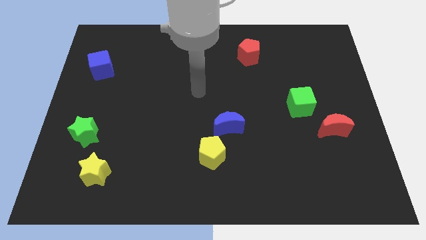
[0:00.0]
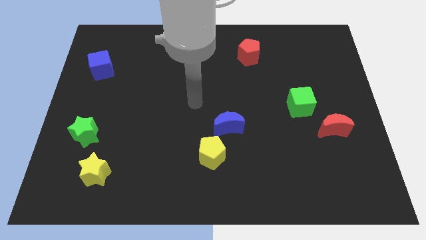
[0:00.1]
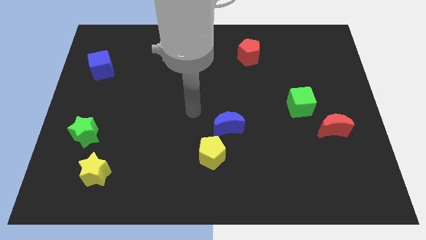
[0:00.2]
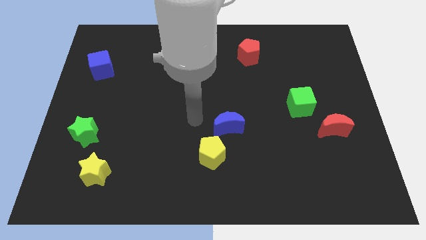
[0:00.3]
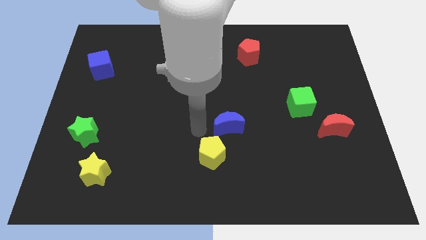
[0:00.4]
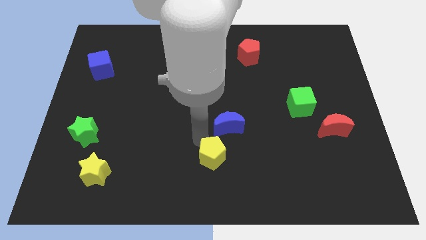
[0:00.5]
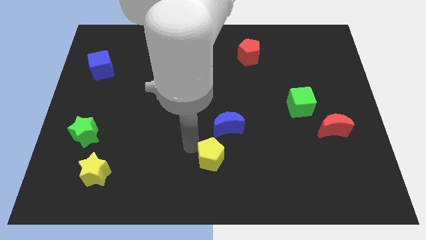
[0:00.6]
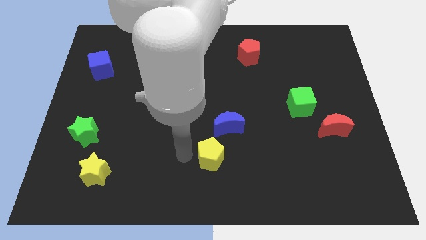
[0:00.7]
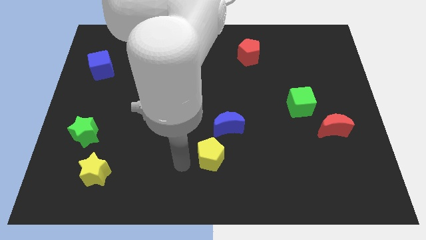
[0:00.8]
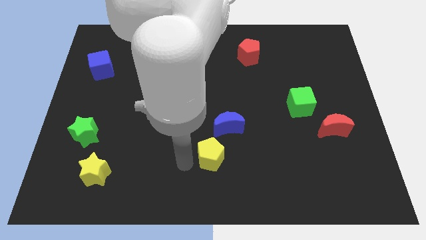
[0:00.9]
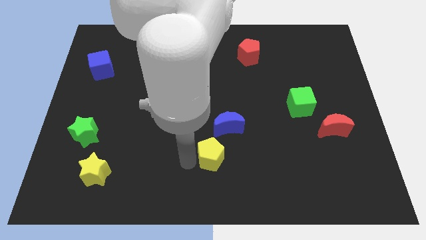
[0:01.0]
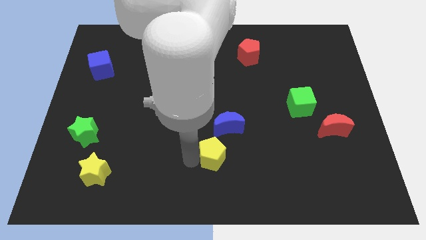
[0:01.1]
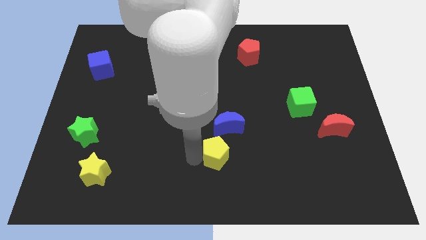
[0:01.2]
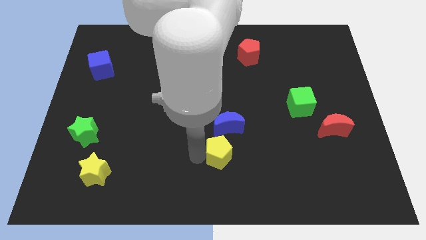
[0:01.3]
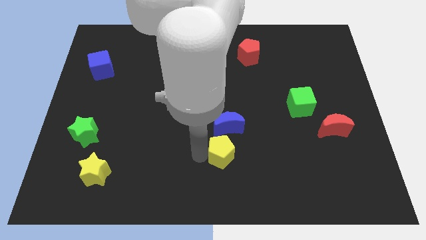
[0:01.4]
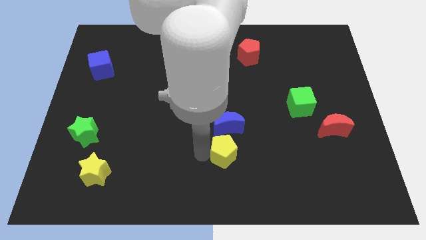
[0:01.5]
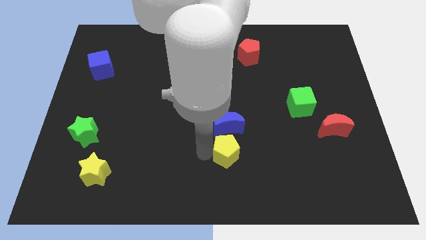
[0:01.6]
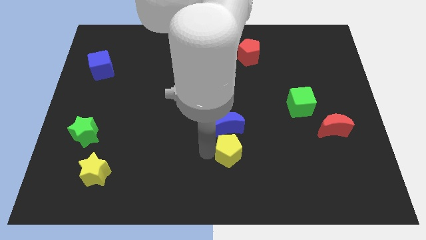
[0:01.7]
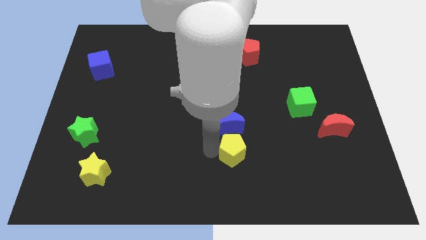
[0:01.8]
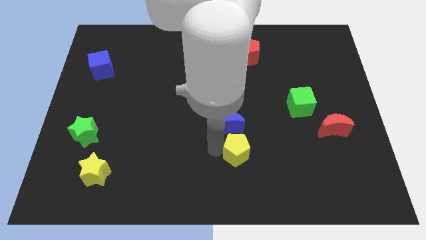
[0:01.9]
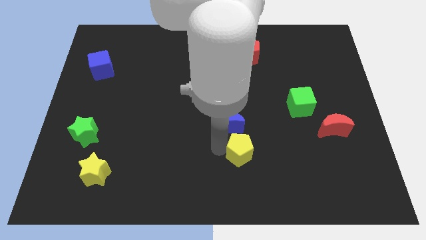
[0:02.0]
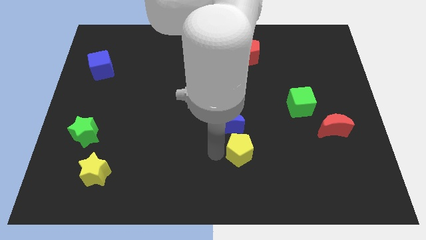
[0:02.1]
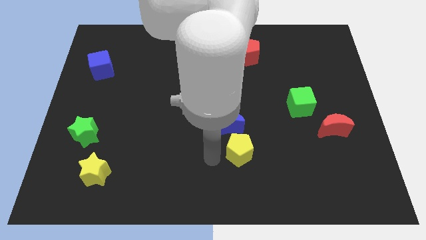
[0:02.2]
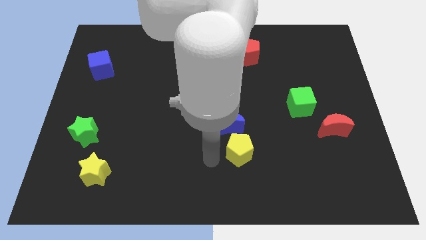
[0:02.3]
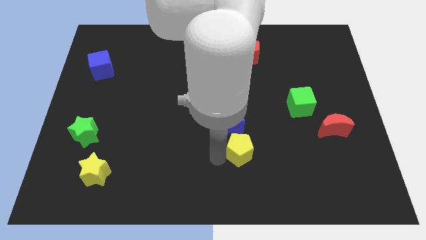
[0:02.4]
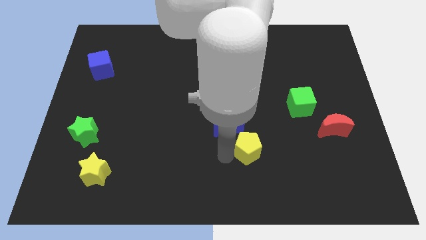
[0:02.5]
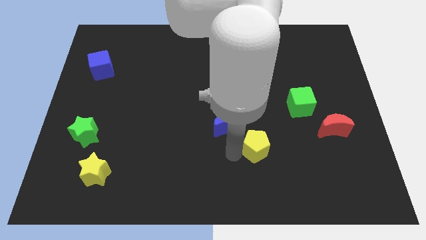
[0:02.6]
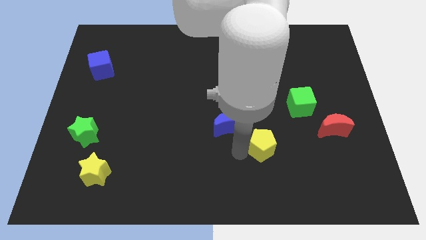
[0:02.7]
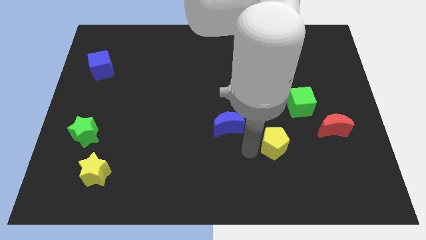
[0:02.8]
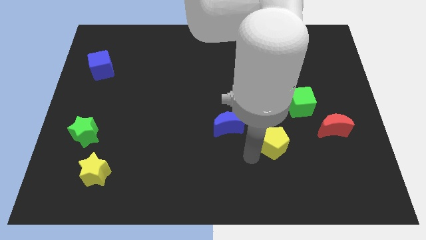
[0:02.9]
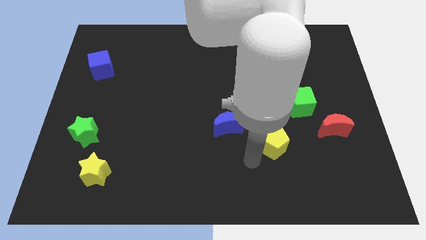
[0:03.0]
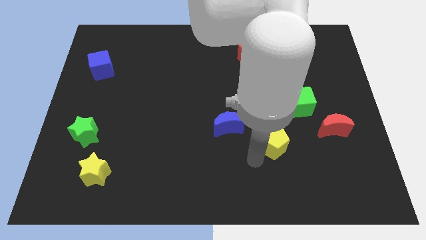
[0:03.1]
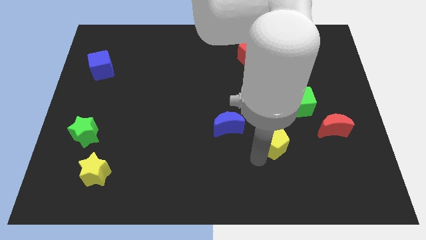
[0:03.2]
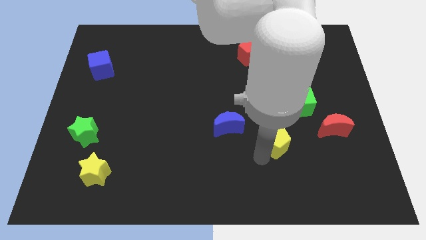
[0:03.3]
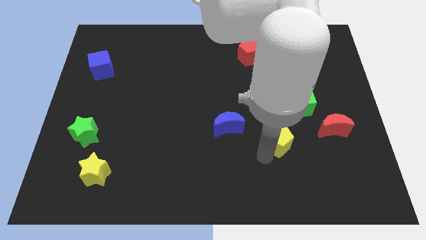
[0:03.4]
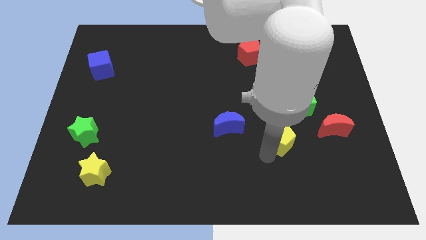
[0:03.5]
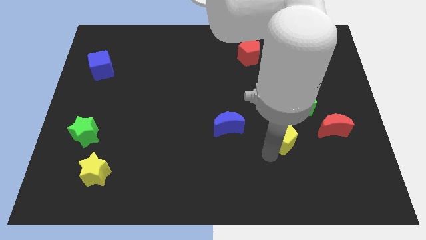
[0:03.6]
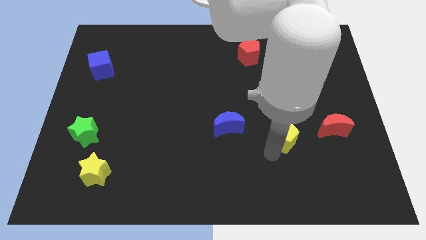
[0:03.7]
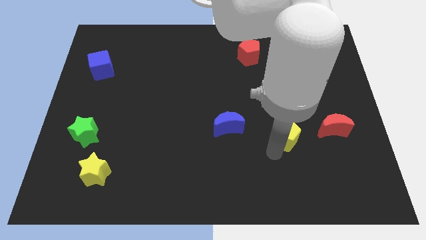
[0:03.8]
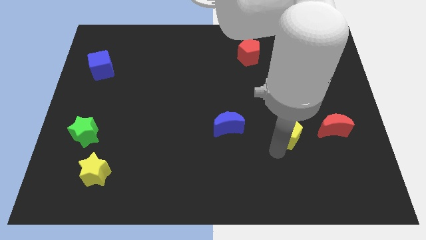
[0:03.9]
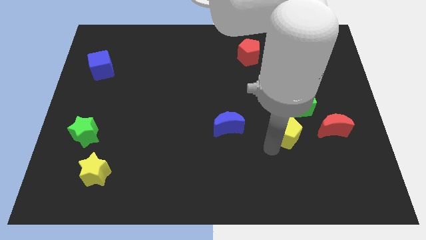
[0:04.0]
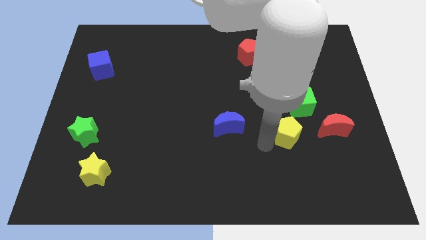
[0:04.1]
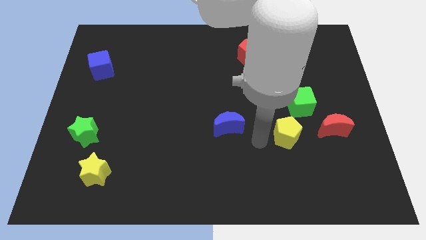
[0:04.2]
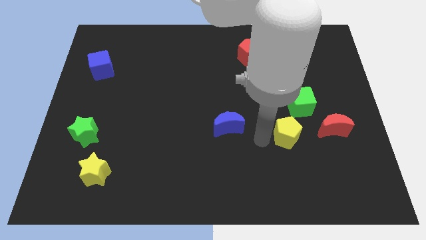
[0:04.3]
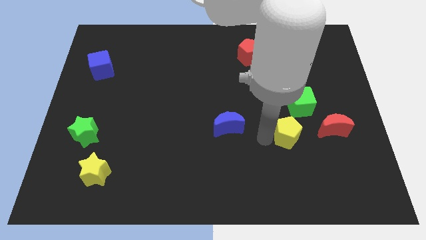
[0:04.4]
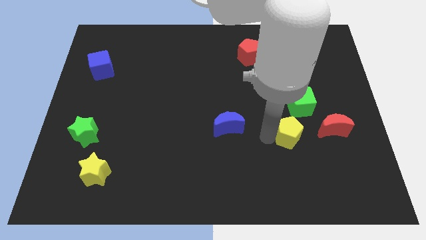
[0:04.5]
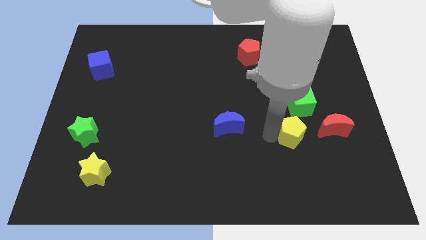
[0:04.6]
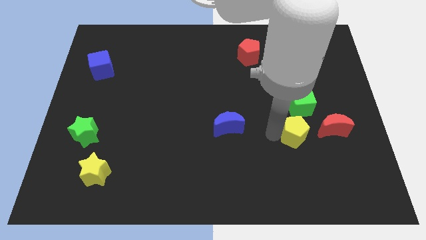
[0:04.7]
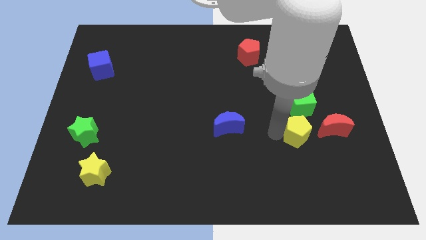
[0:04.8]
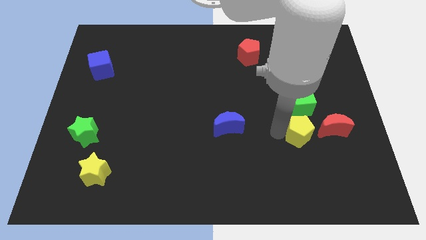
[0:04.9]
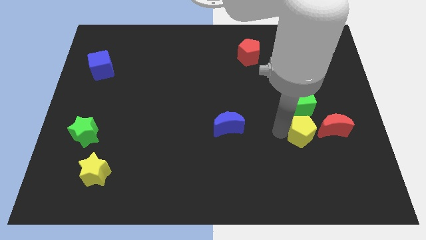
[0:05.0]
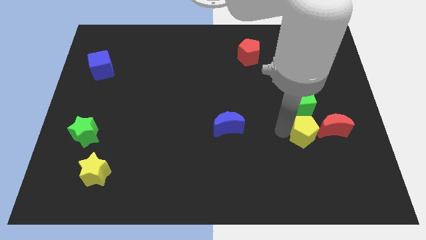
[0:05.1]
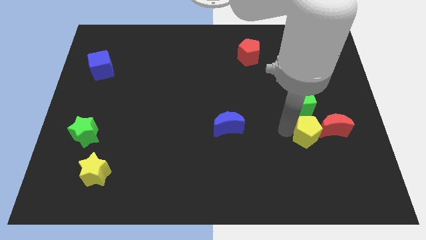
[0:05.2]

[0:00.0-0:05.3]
slide the yellow pentagon close to the red moon

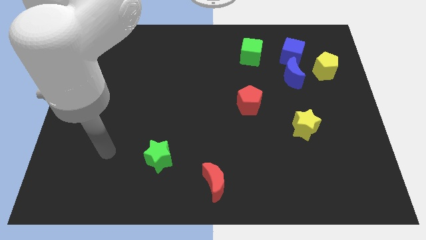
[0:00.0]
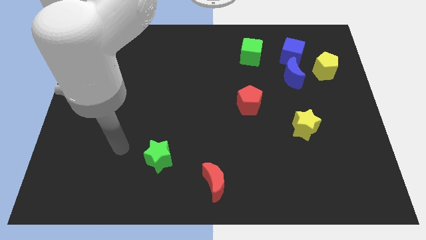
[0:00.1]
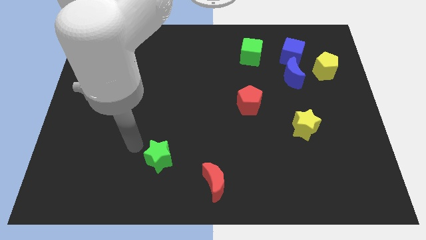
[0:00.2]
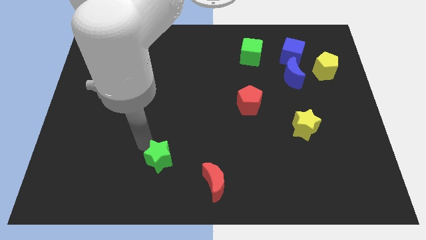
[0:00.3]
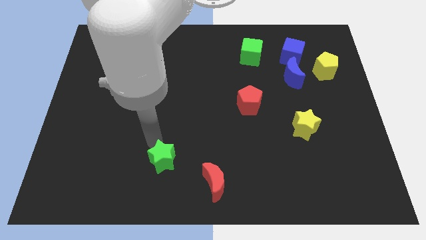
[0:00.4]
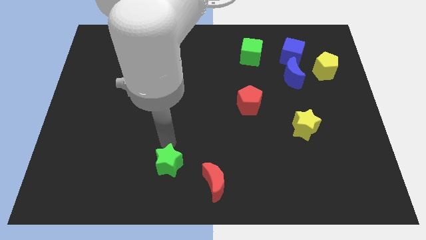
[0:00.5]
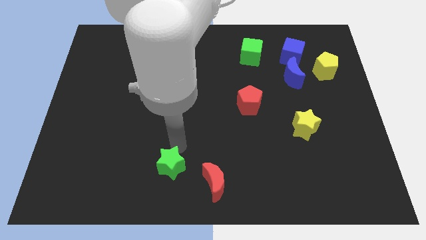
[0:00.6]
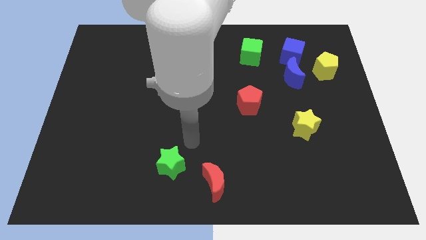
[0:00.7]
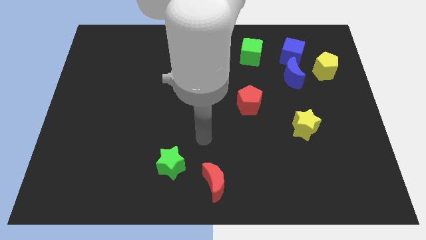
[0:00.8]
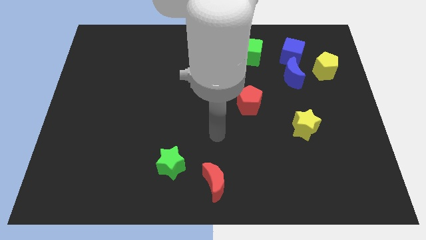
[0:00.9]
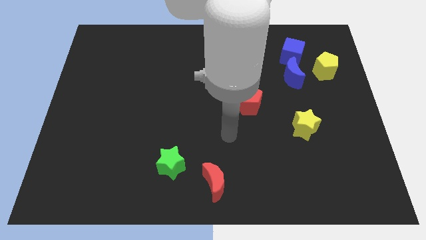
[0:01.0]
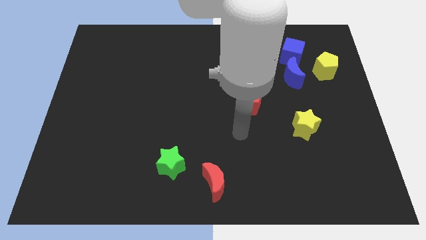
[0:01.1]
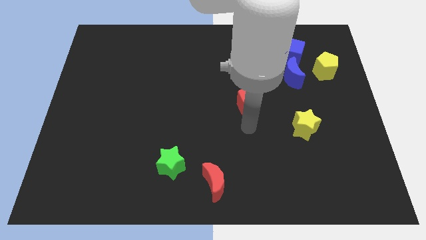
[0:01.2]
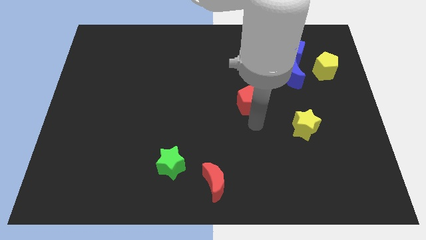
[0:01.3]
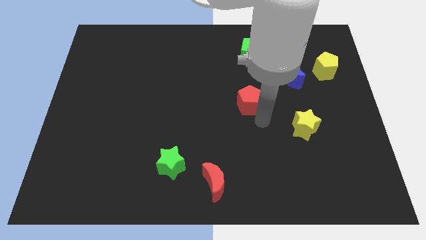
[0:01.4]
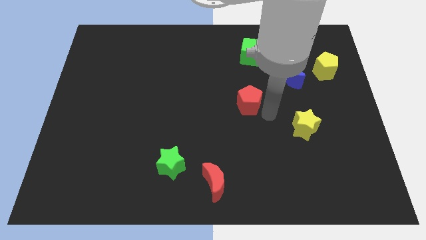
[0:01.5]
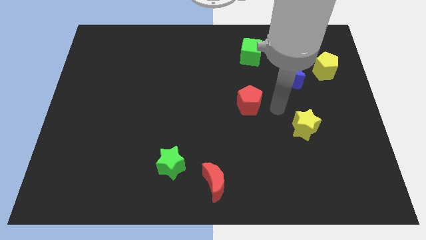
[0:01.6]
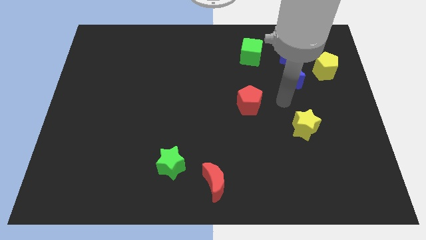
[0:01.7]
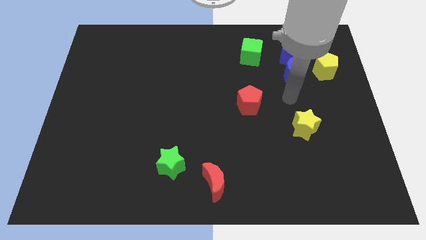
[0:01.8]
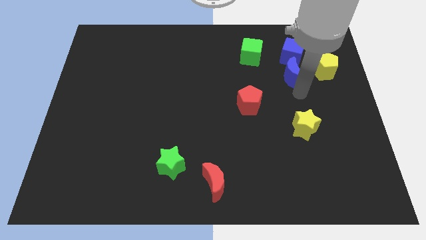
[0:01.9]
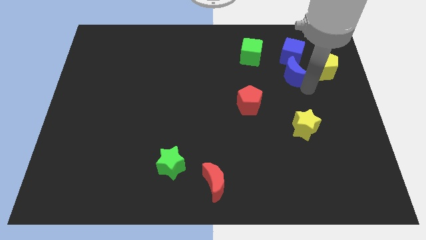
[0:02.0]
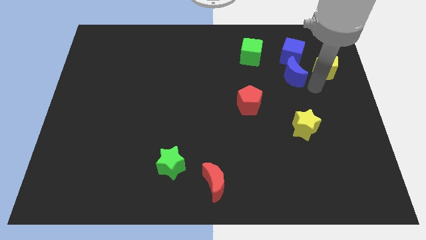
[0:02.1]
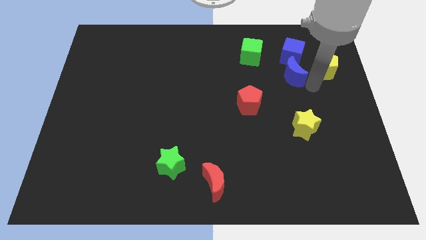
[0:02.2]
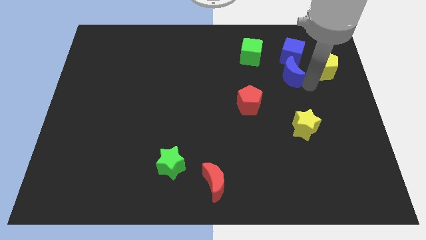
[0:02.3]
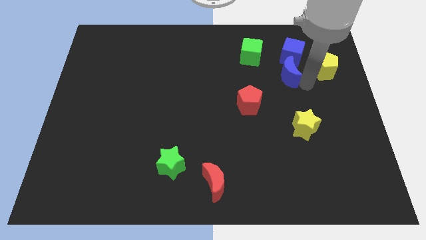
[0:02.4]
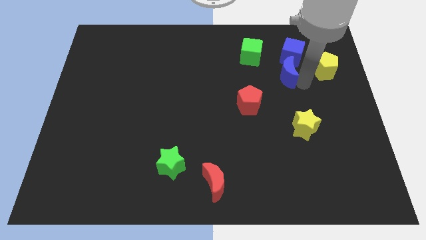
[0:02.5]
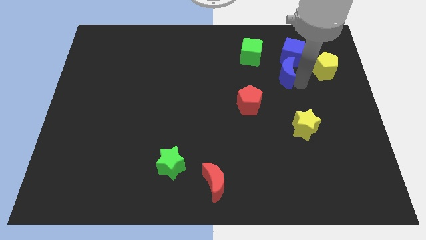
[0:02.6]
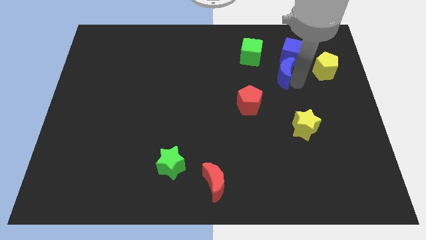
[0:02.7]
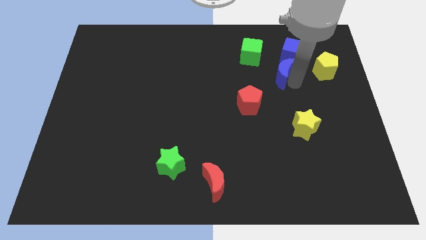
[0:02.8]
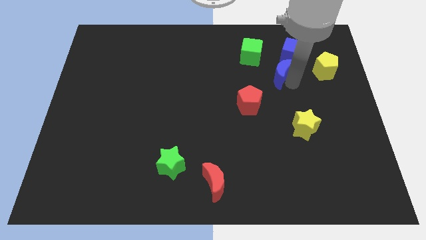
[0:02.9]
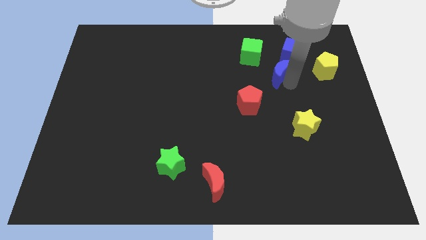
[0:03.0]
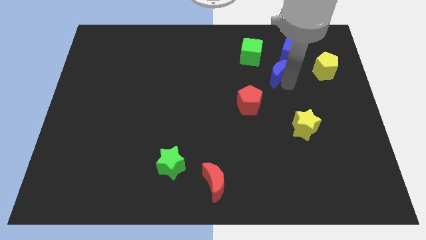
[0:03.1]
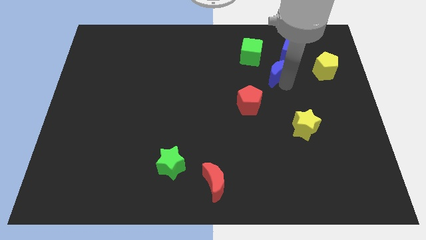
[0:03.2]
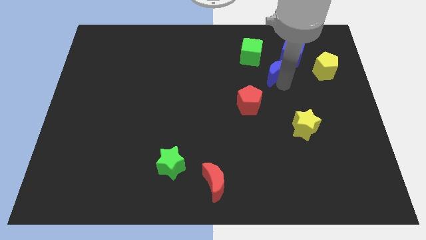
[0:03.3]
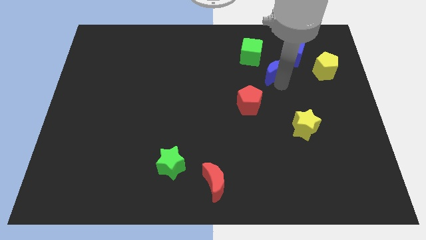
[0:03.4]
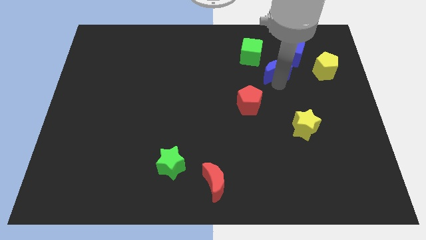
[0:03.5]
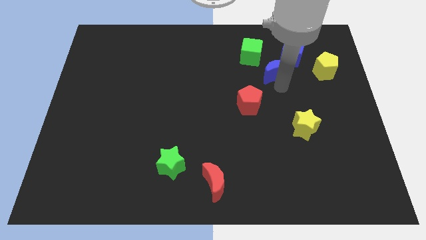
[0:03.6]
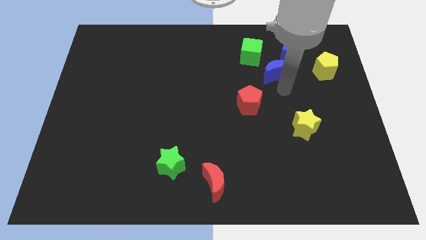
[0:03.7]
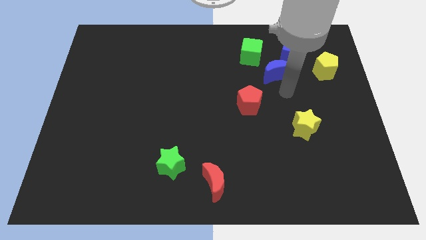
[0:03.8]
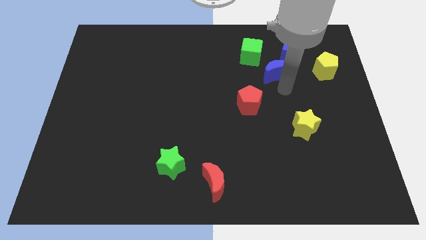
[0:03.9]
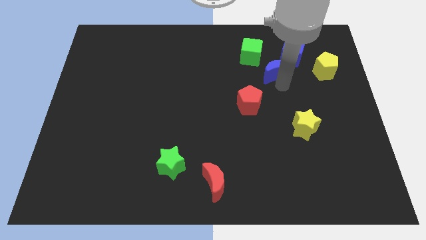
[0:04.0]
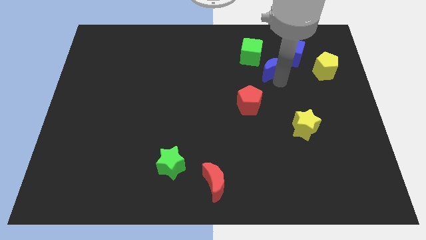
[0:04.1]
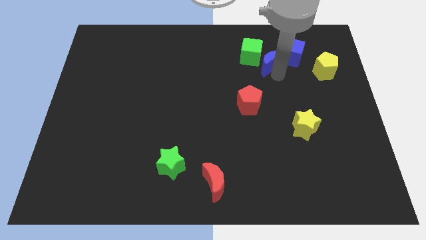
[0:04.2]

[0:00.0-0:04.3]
slide the blue moon towards the green cube
